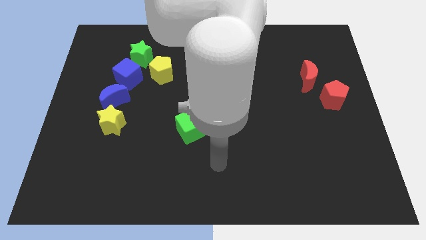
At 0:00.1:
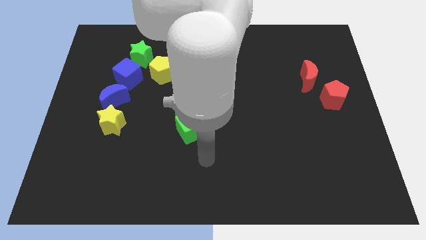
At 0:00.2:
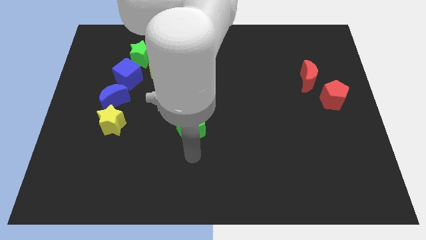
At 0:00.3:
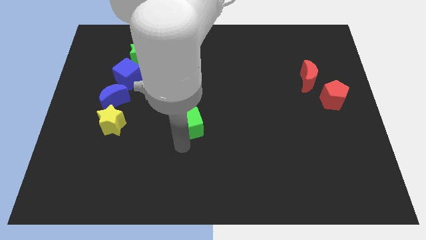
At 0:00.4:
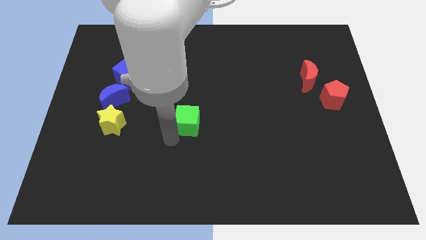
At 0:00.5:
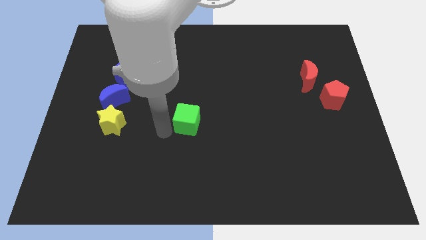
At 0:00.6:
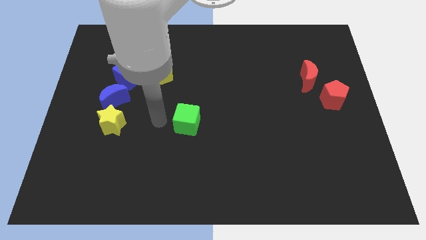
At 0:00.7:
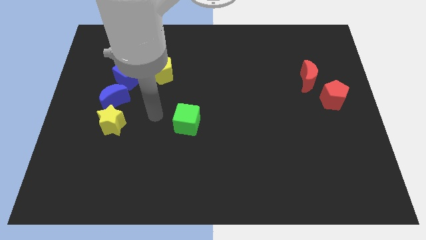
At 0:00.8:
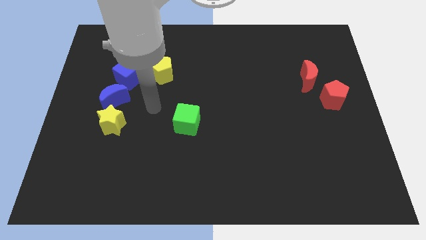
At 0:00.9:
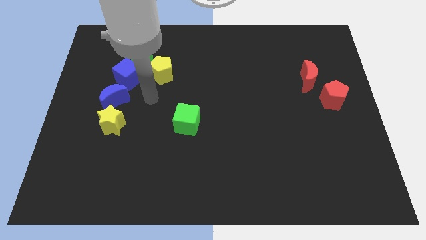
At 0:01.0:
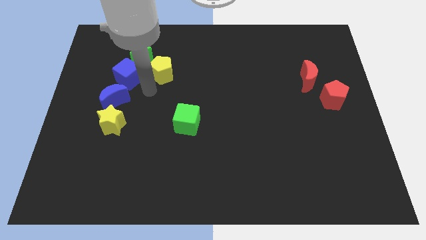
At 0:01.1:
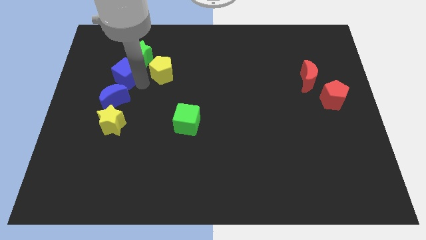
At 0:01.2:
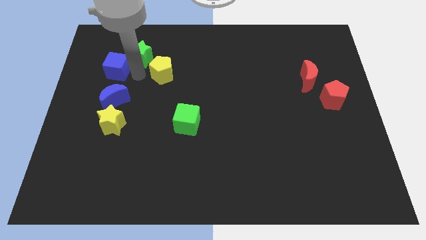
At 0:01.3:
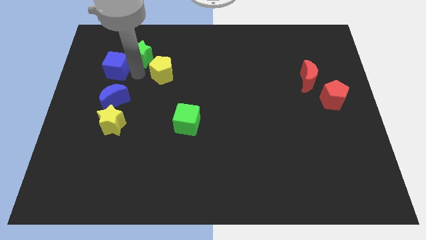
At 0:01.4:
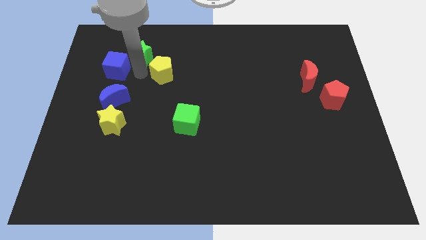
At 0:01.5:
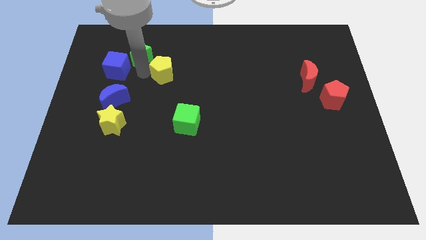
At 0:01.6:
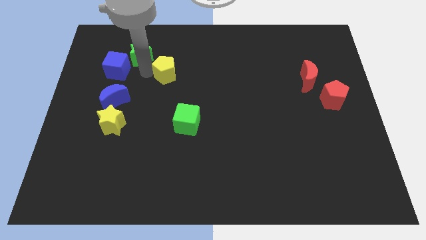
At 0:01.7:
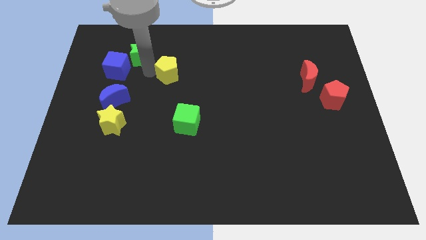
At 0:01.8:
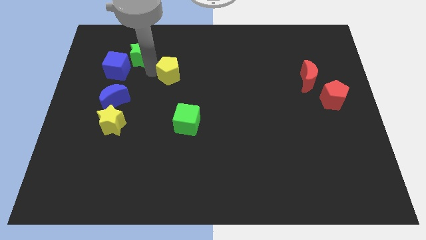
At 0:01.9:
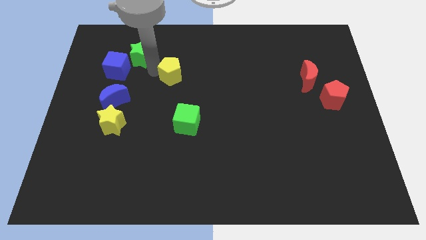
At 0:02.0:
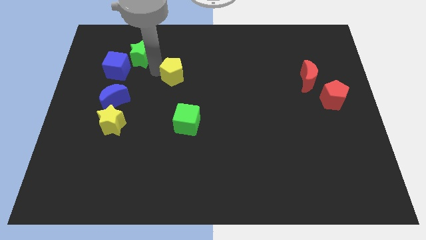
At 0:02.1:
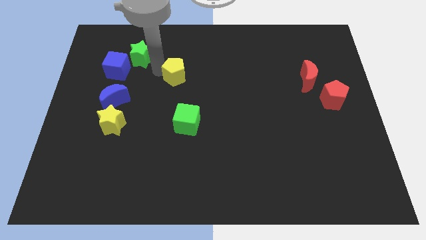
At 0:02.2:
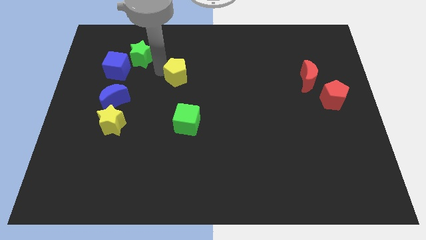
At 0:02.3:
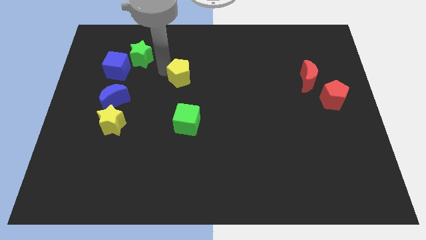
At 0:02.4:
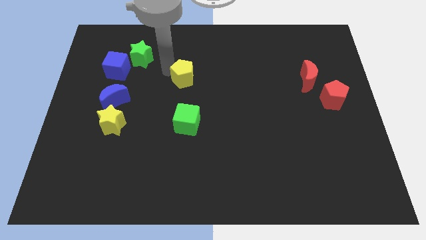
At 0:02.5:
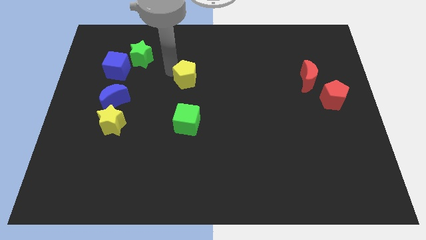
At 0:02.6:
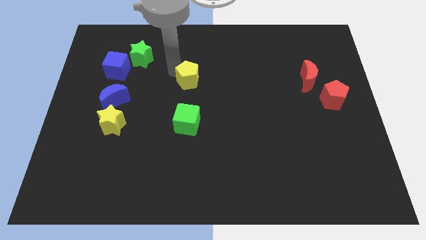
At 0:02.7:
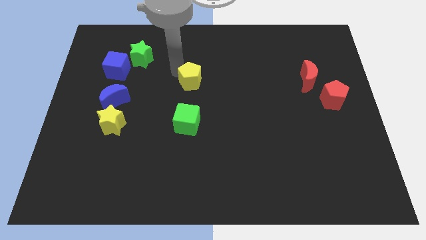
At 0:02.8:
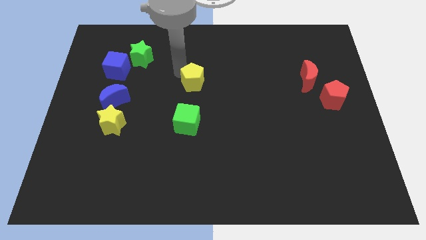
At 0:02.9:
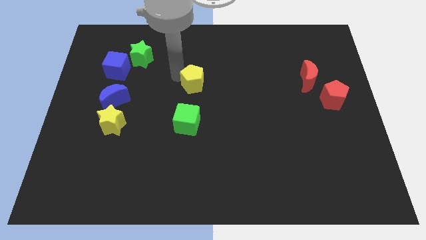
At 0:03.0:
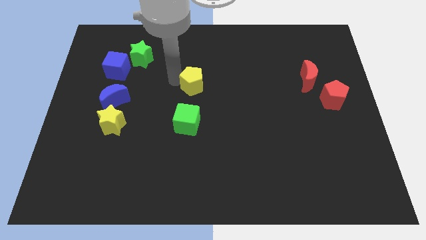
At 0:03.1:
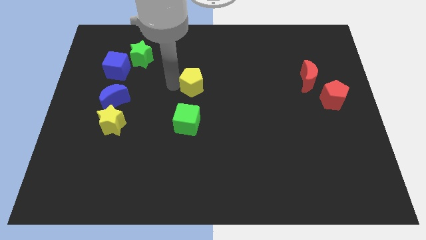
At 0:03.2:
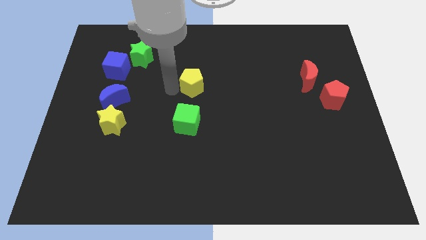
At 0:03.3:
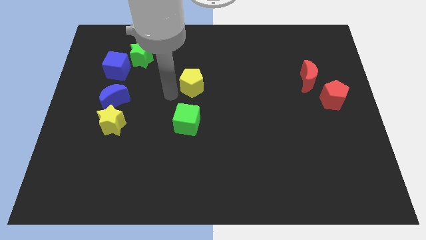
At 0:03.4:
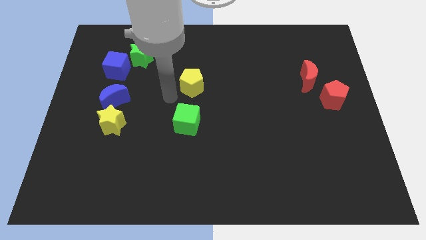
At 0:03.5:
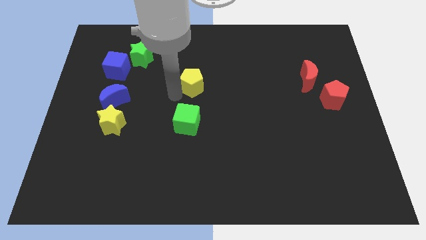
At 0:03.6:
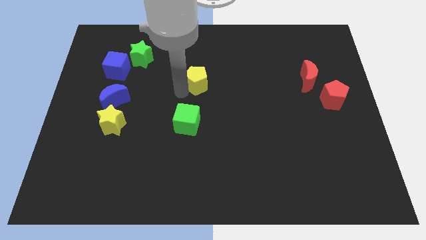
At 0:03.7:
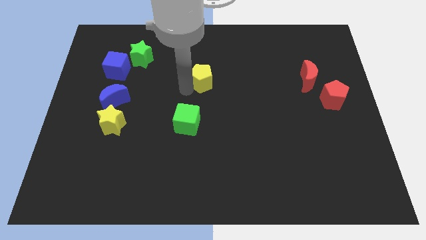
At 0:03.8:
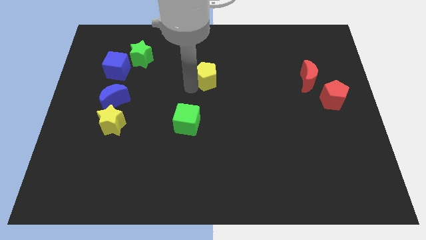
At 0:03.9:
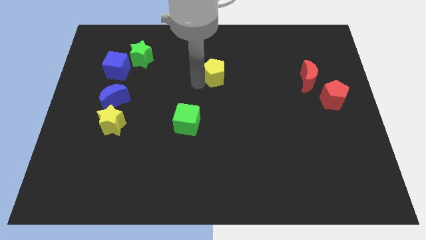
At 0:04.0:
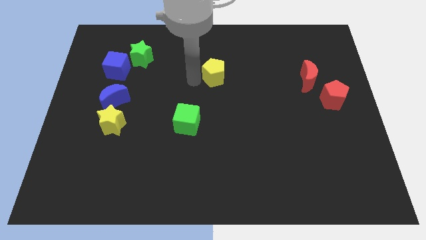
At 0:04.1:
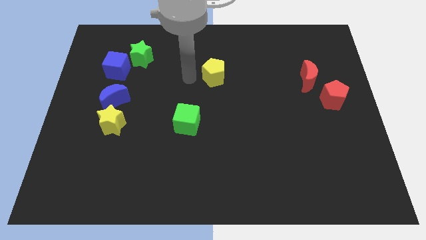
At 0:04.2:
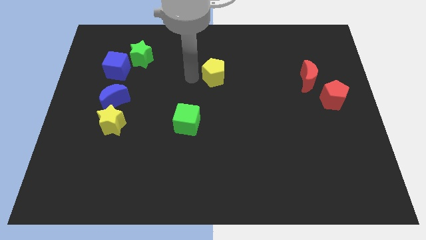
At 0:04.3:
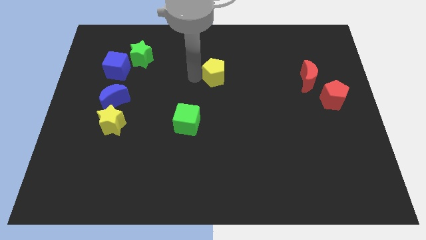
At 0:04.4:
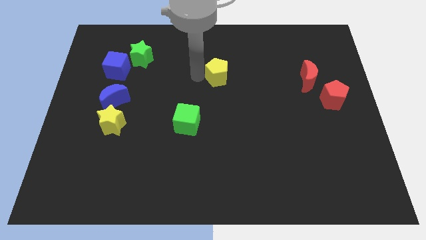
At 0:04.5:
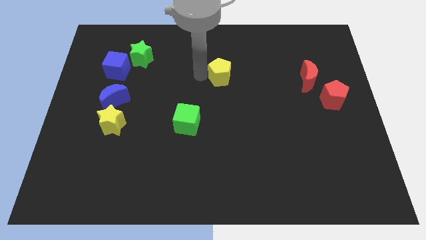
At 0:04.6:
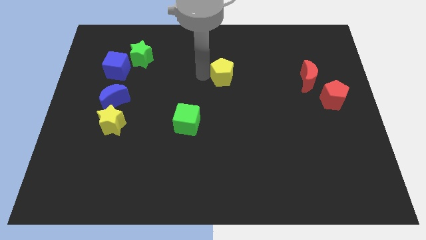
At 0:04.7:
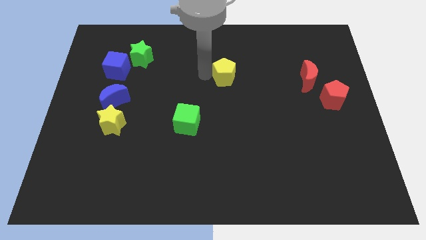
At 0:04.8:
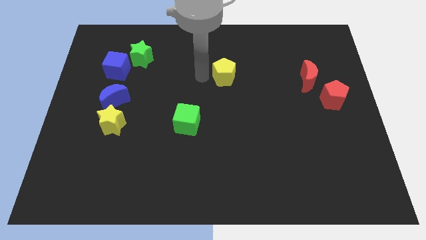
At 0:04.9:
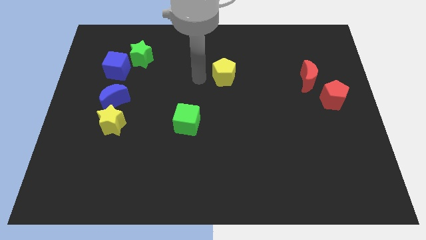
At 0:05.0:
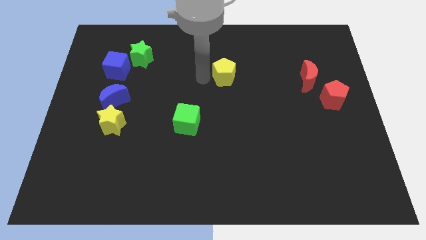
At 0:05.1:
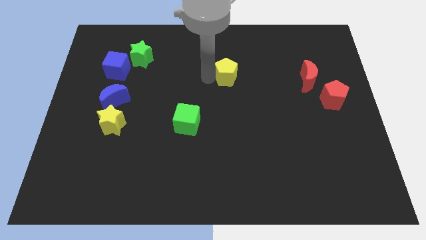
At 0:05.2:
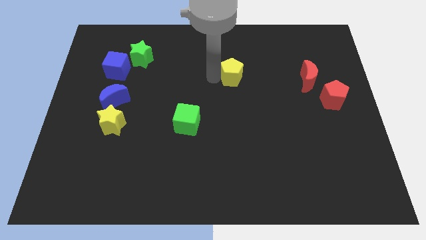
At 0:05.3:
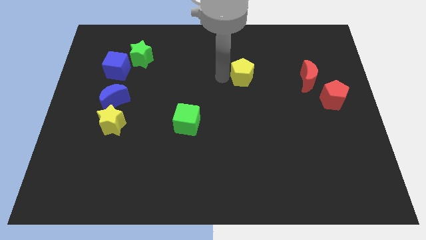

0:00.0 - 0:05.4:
push the yellow pentagon to the right

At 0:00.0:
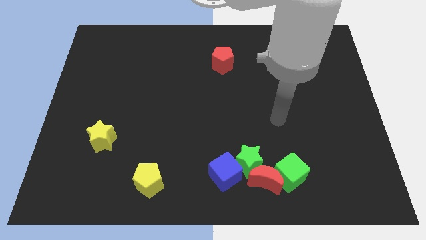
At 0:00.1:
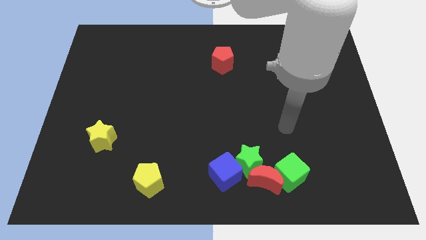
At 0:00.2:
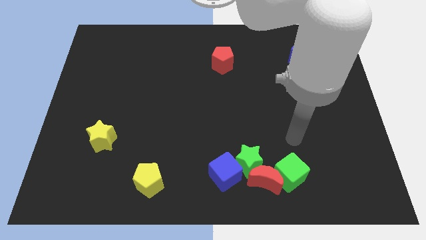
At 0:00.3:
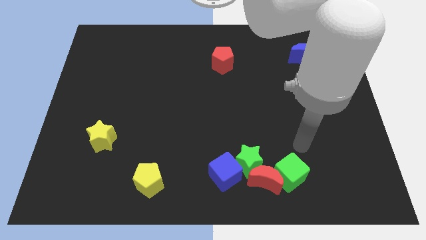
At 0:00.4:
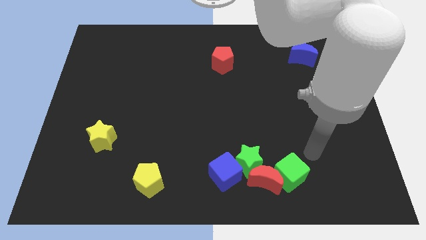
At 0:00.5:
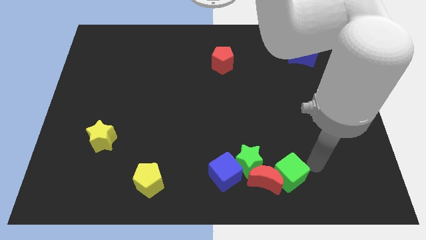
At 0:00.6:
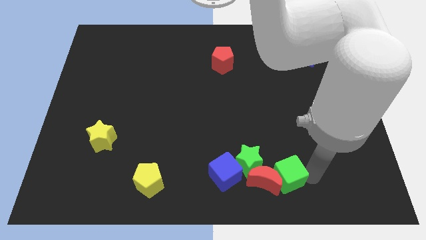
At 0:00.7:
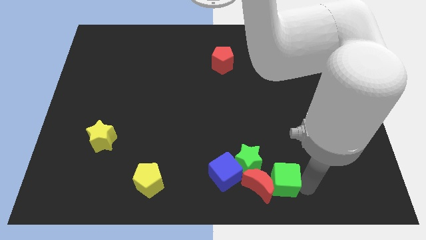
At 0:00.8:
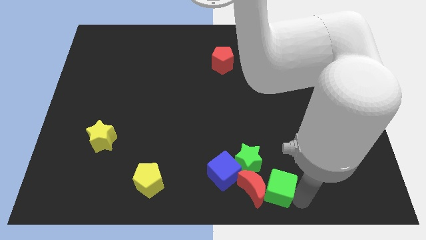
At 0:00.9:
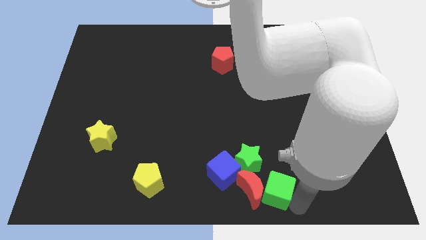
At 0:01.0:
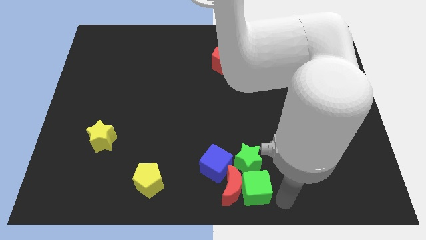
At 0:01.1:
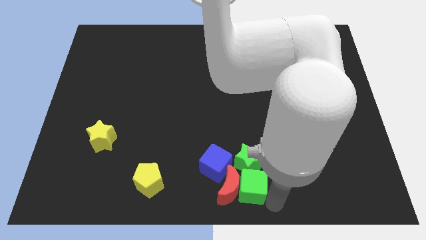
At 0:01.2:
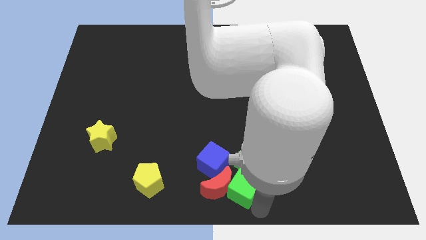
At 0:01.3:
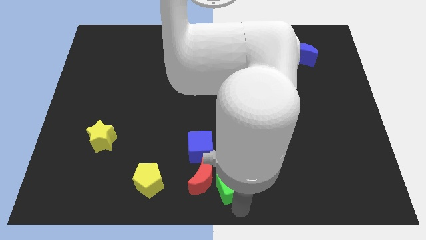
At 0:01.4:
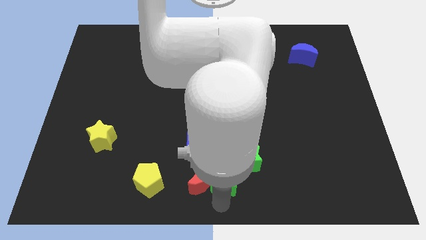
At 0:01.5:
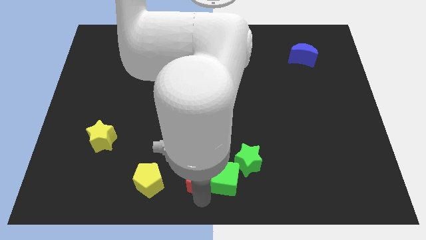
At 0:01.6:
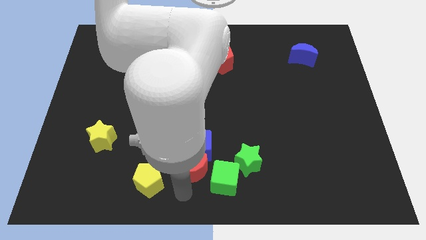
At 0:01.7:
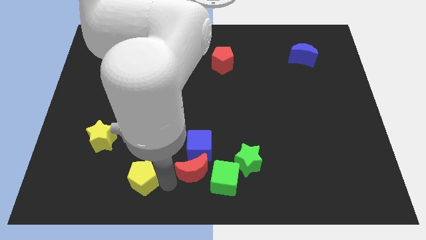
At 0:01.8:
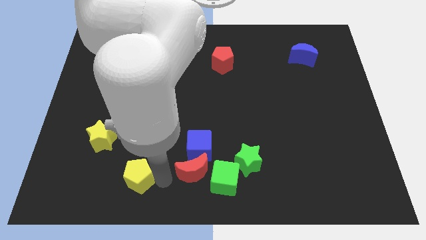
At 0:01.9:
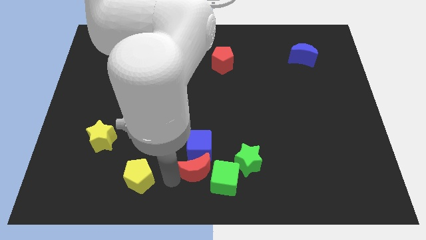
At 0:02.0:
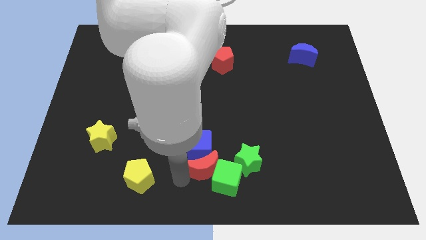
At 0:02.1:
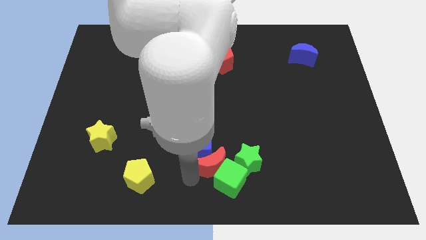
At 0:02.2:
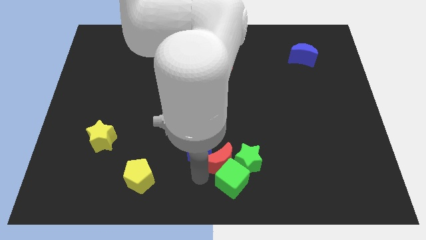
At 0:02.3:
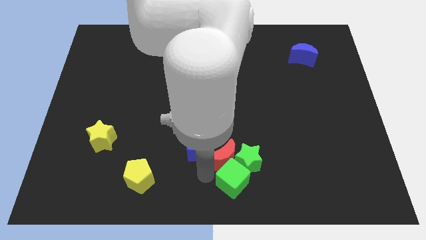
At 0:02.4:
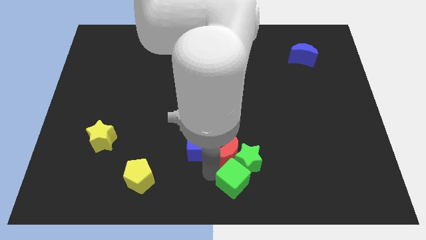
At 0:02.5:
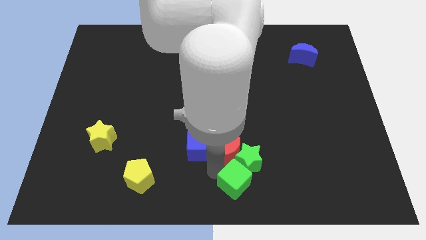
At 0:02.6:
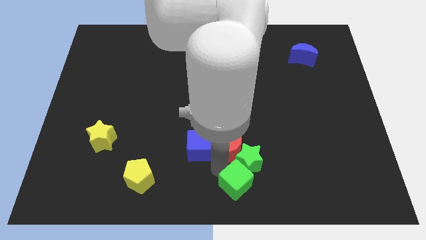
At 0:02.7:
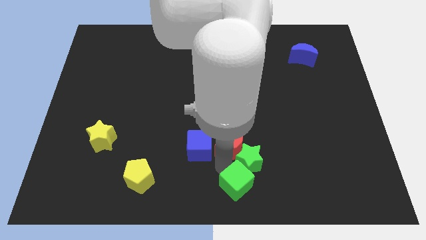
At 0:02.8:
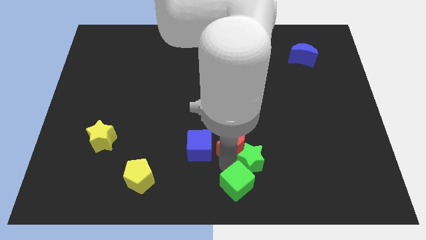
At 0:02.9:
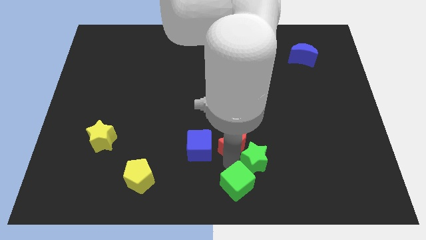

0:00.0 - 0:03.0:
push the red moon a little up
